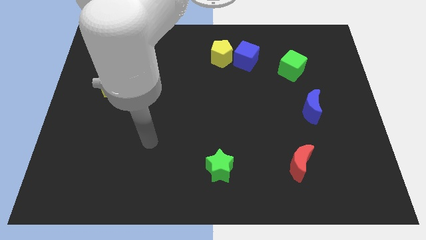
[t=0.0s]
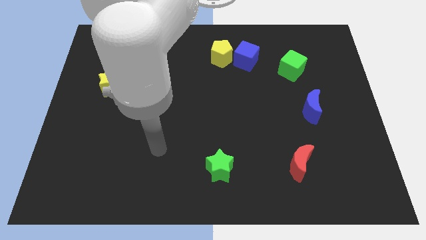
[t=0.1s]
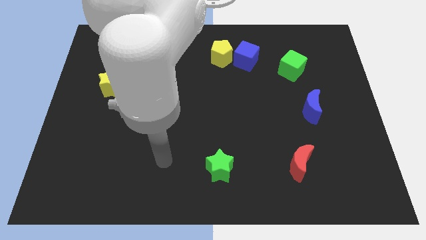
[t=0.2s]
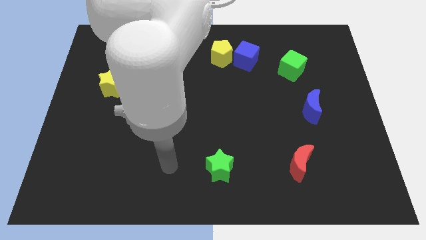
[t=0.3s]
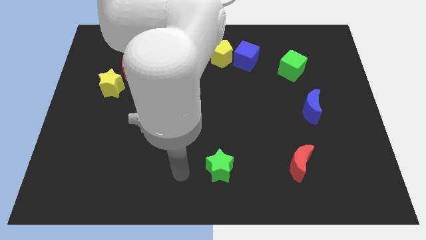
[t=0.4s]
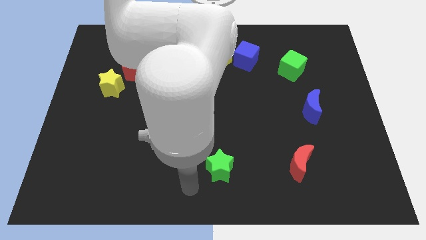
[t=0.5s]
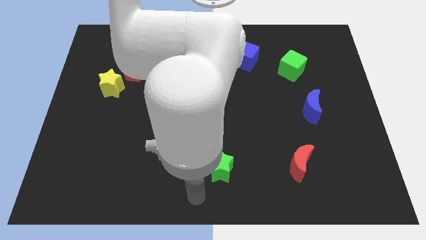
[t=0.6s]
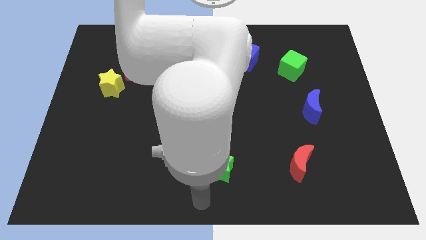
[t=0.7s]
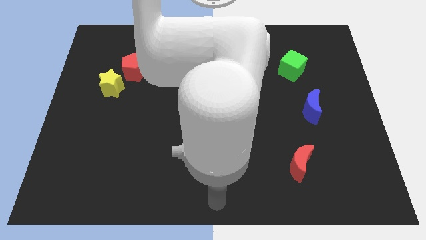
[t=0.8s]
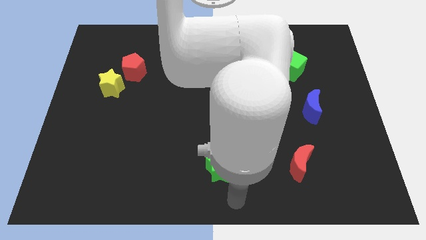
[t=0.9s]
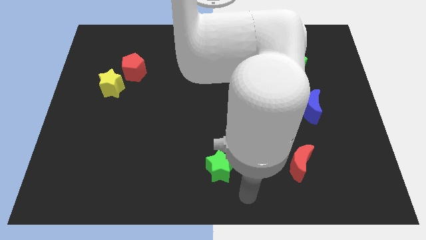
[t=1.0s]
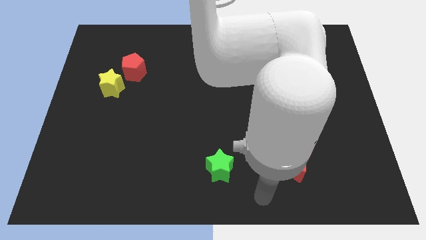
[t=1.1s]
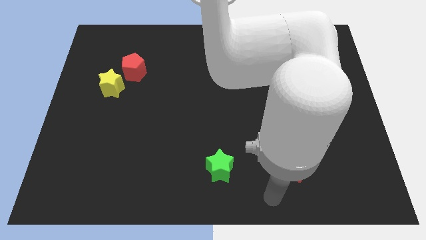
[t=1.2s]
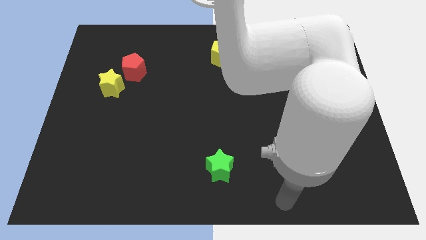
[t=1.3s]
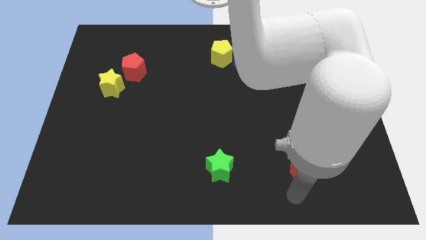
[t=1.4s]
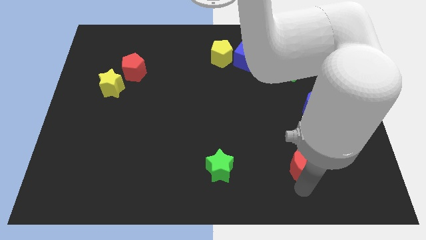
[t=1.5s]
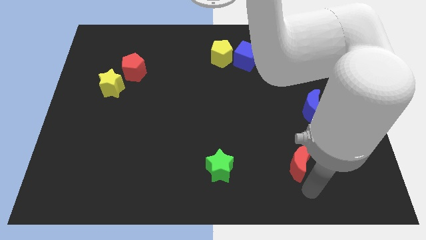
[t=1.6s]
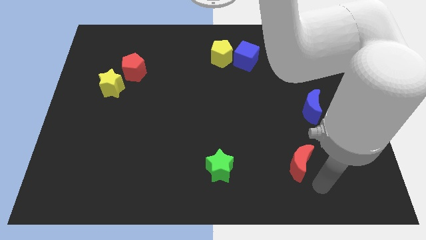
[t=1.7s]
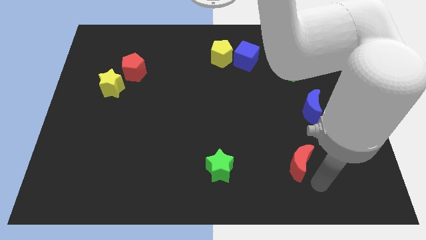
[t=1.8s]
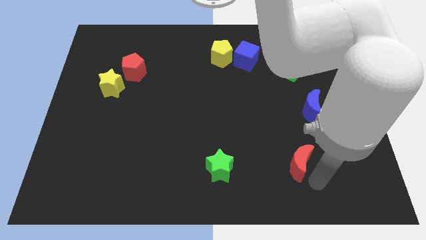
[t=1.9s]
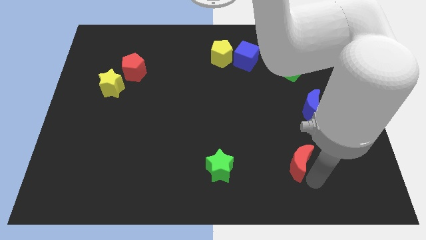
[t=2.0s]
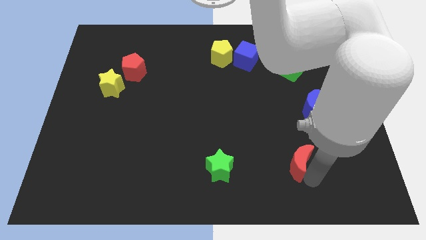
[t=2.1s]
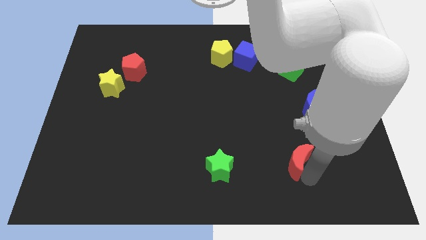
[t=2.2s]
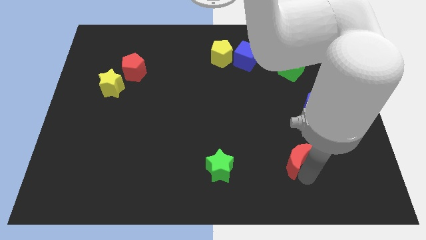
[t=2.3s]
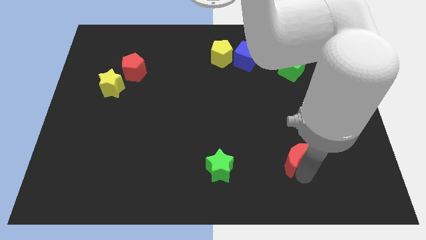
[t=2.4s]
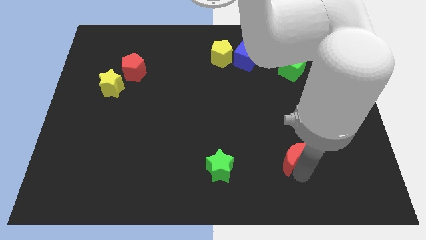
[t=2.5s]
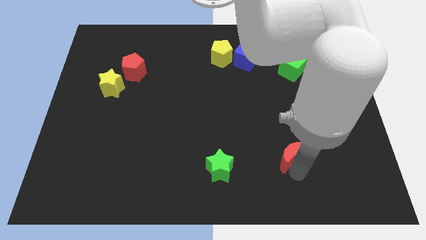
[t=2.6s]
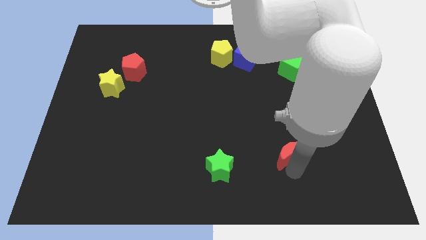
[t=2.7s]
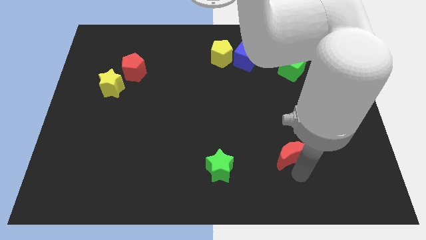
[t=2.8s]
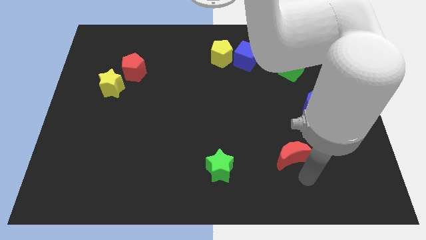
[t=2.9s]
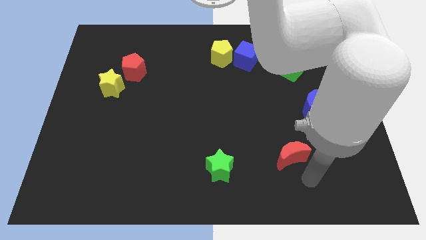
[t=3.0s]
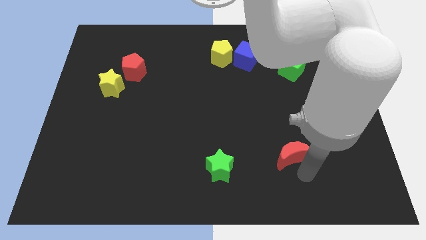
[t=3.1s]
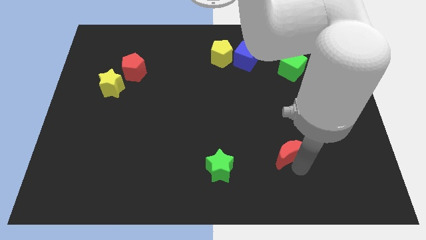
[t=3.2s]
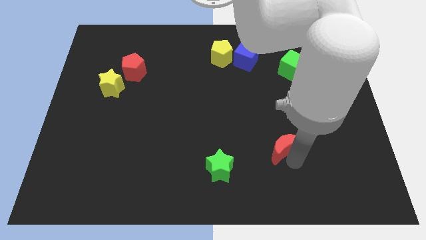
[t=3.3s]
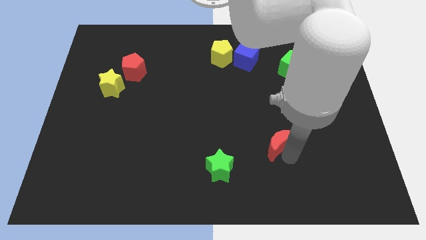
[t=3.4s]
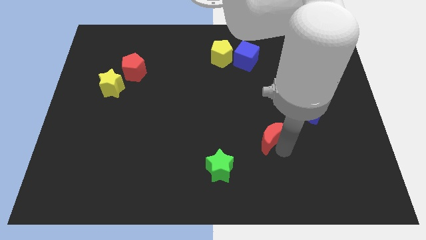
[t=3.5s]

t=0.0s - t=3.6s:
slightly slide the red moon up and left

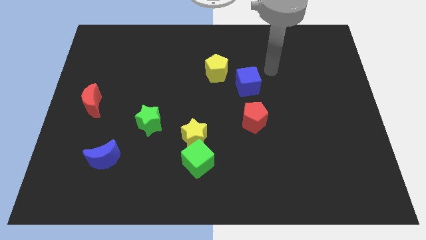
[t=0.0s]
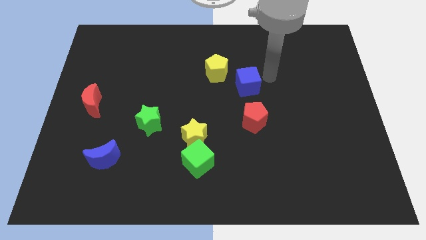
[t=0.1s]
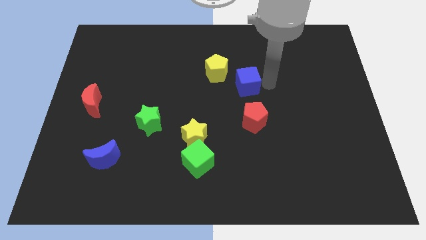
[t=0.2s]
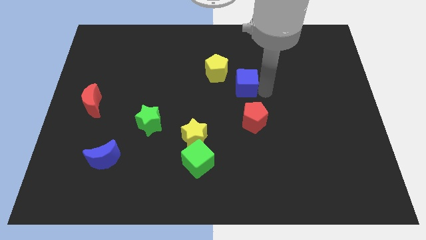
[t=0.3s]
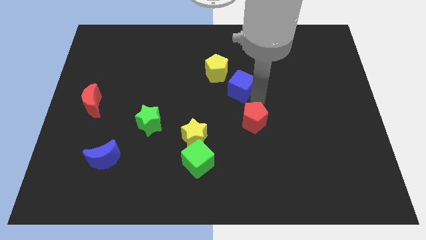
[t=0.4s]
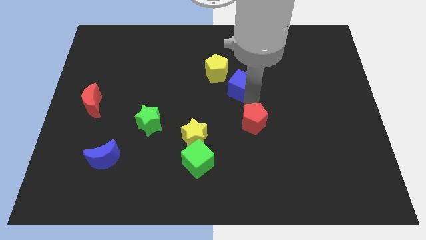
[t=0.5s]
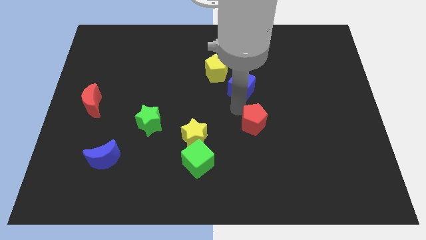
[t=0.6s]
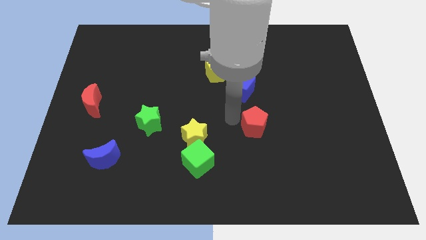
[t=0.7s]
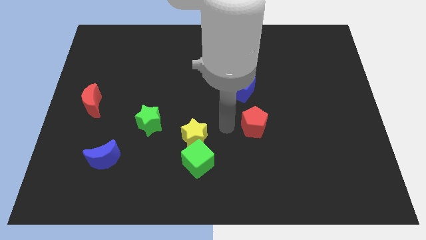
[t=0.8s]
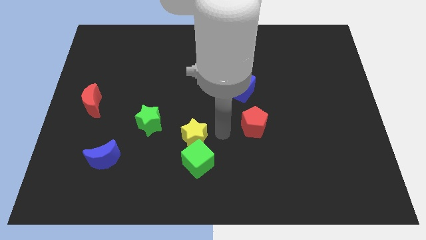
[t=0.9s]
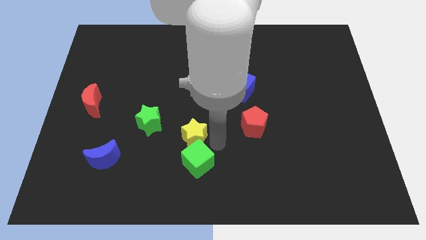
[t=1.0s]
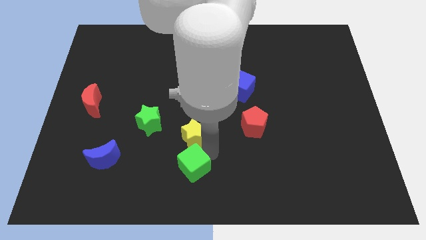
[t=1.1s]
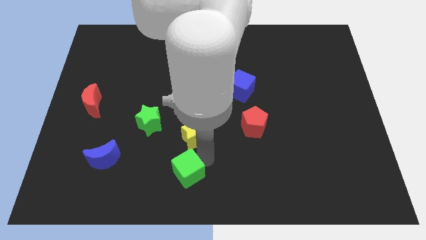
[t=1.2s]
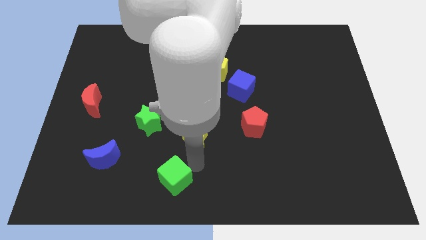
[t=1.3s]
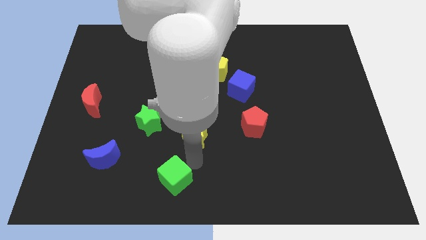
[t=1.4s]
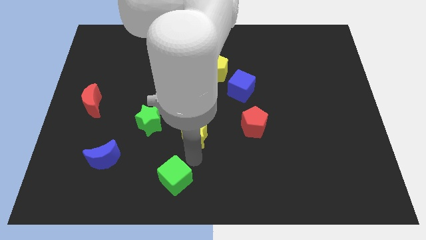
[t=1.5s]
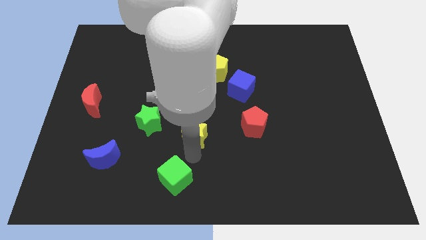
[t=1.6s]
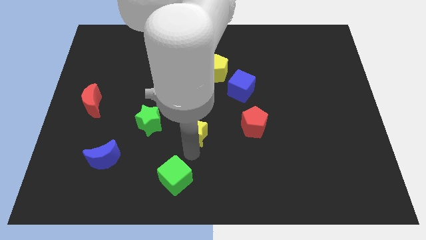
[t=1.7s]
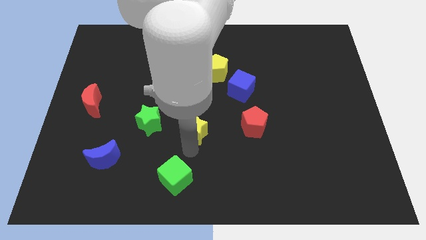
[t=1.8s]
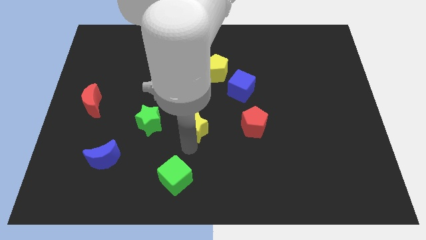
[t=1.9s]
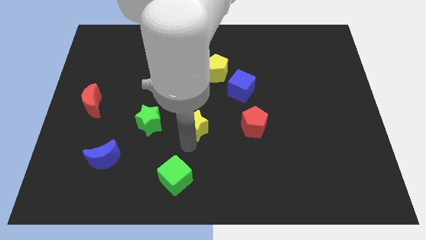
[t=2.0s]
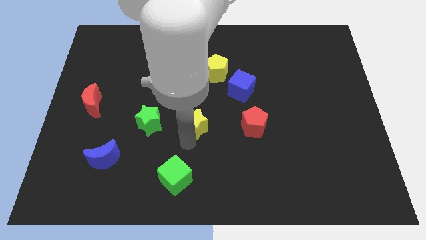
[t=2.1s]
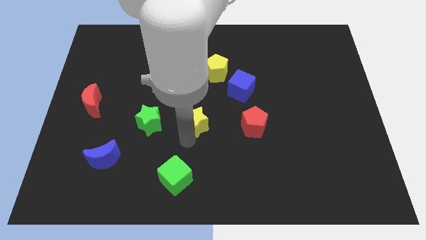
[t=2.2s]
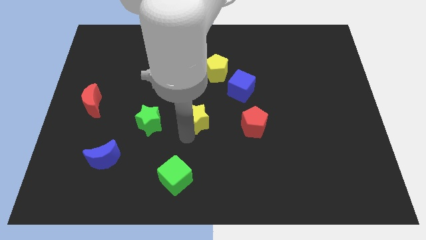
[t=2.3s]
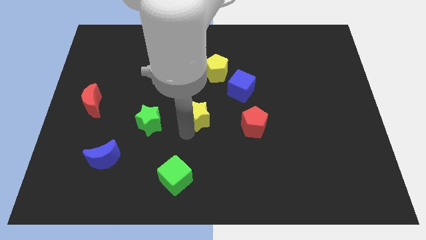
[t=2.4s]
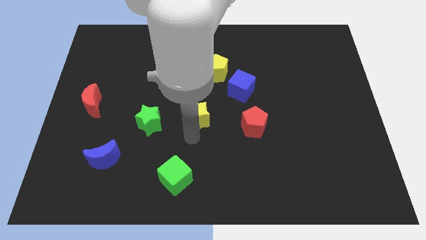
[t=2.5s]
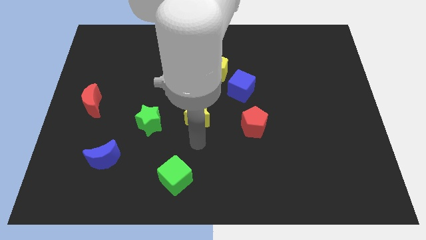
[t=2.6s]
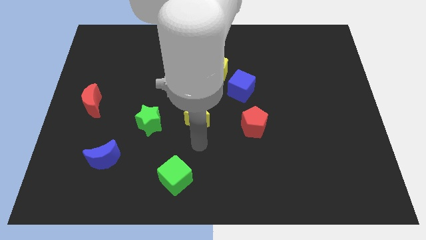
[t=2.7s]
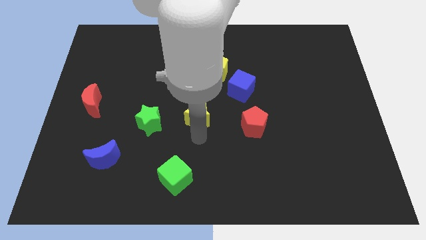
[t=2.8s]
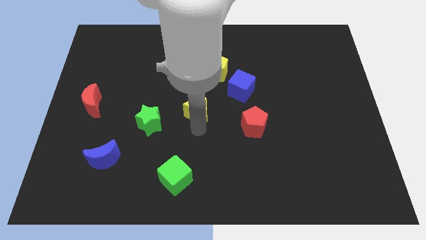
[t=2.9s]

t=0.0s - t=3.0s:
move the yellow star up a little bit

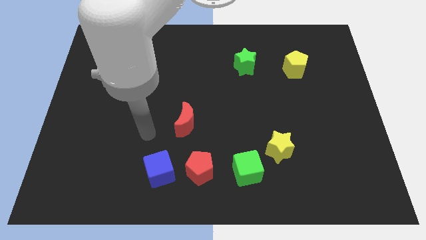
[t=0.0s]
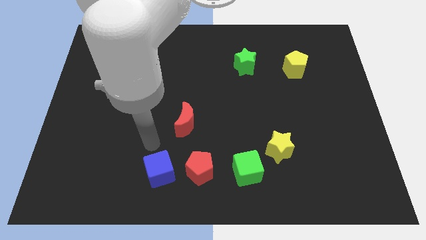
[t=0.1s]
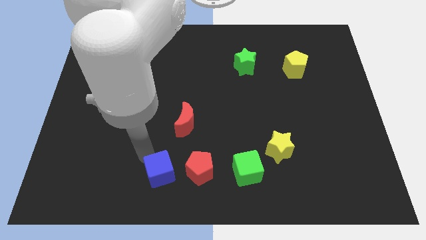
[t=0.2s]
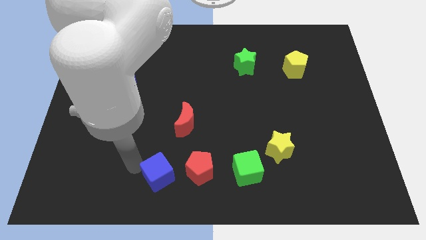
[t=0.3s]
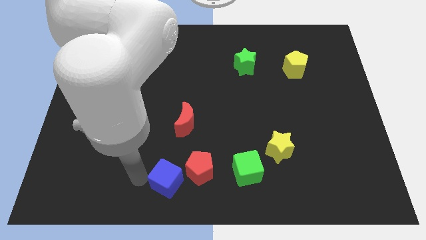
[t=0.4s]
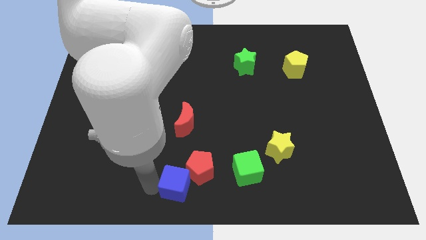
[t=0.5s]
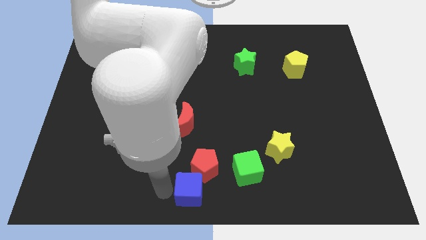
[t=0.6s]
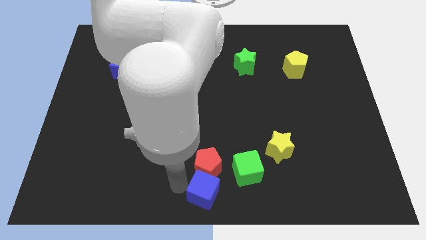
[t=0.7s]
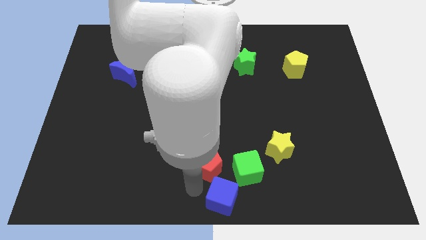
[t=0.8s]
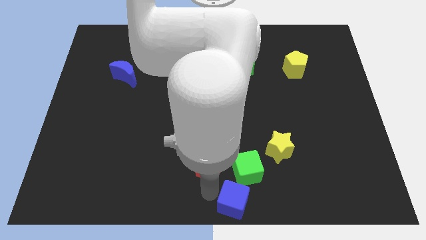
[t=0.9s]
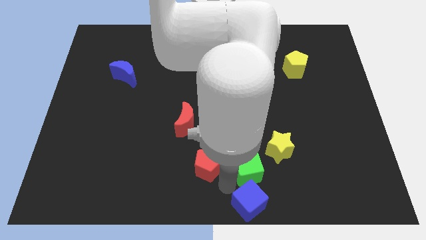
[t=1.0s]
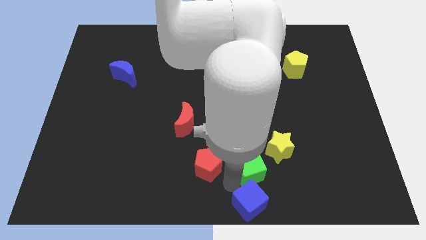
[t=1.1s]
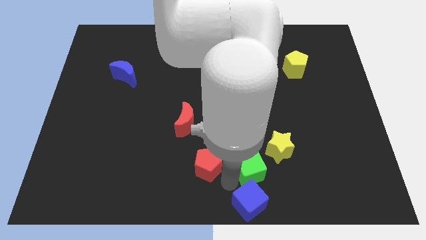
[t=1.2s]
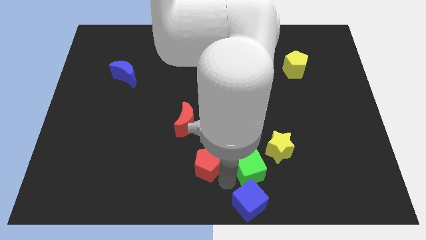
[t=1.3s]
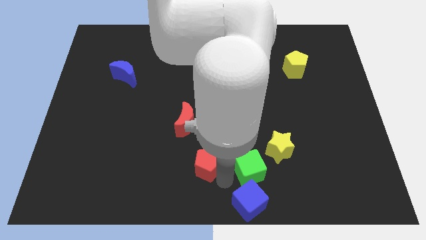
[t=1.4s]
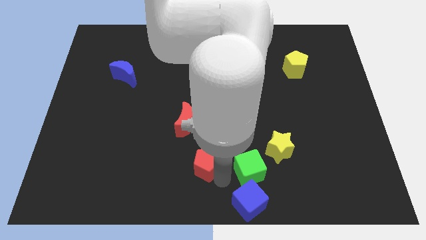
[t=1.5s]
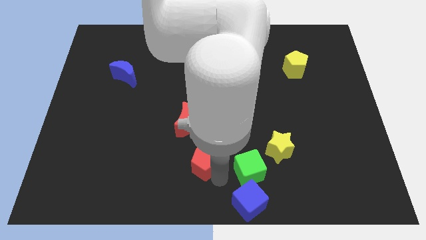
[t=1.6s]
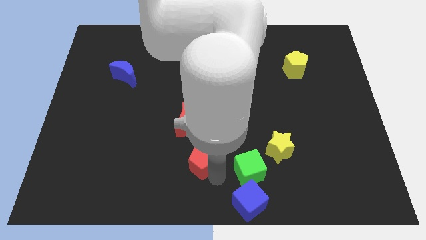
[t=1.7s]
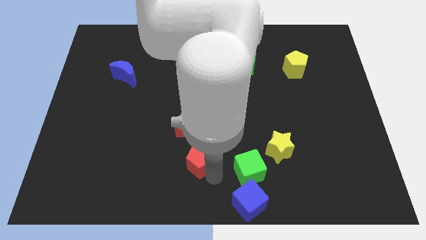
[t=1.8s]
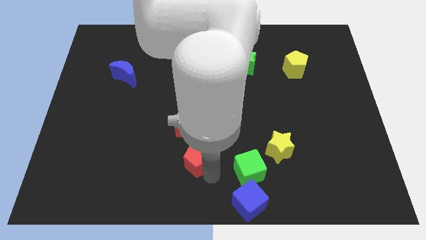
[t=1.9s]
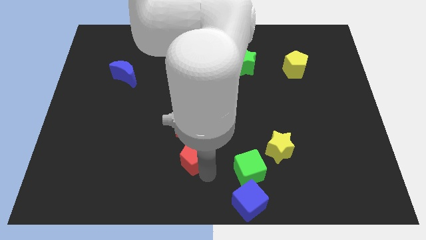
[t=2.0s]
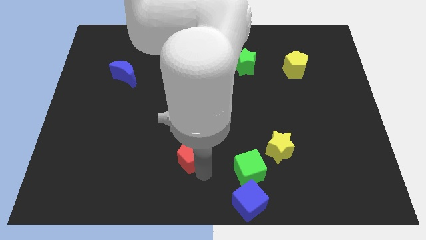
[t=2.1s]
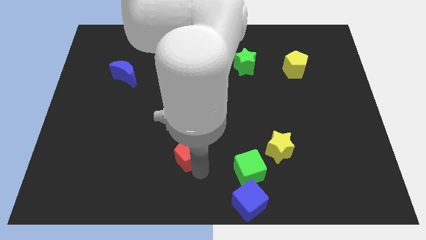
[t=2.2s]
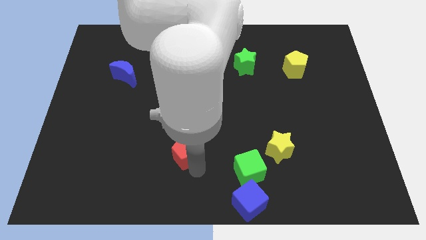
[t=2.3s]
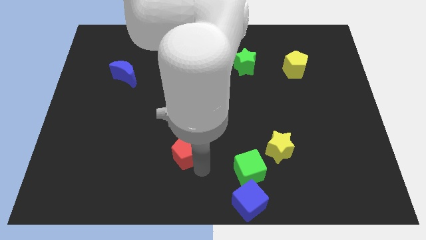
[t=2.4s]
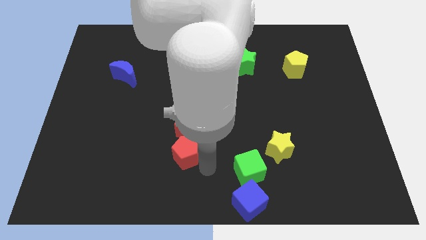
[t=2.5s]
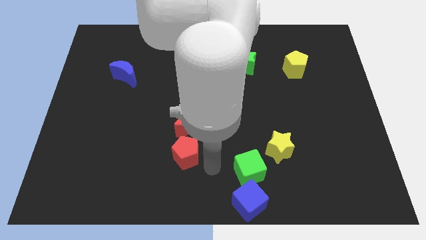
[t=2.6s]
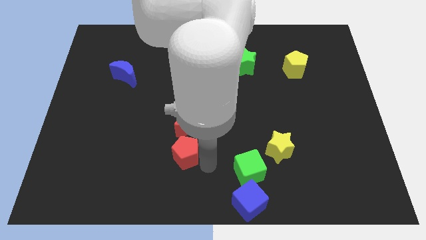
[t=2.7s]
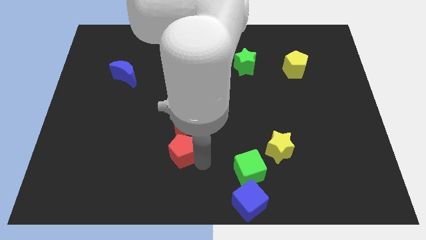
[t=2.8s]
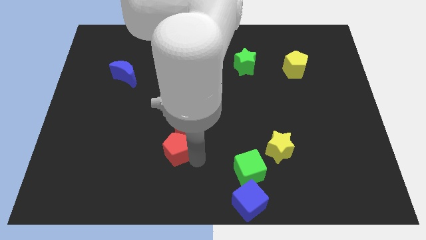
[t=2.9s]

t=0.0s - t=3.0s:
slightly slide the red pentagon diagonally up and left
